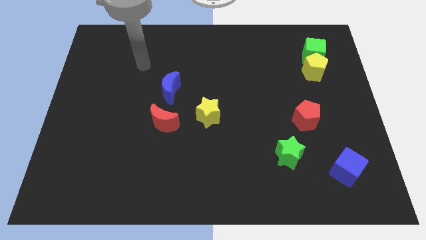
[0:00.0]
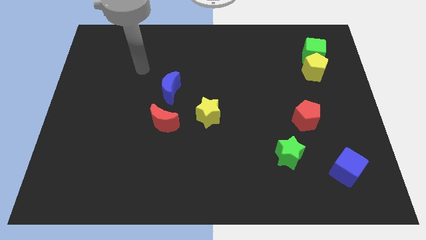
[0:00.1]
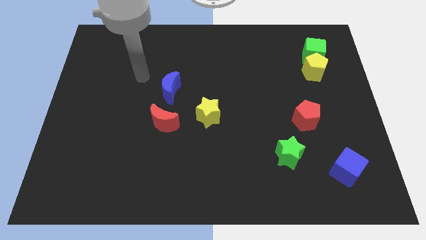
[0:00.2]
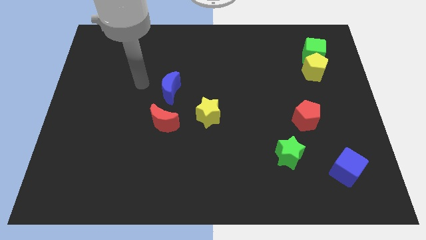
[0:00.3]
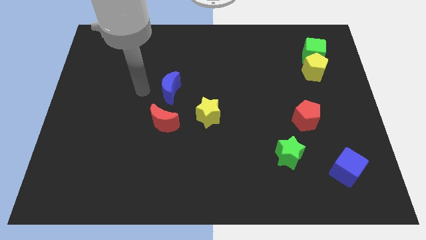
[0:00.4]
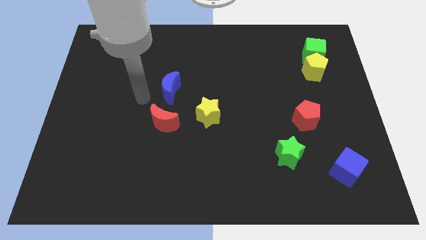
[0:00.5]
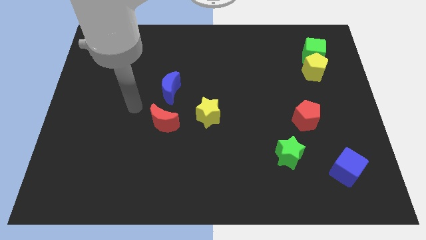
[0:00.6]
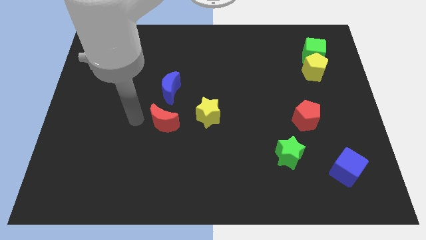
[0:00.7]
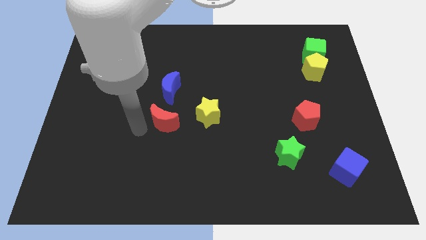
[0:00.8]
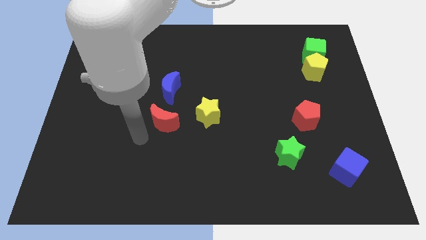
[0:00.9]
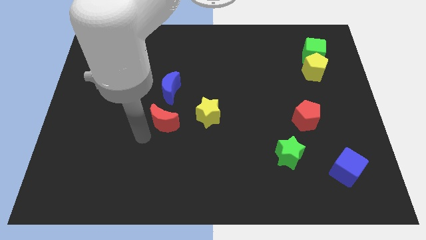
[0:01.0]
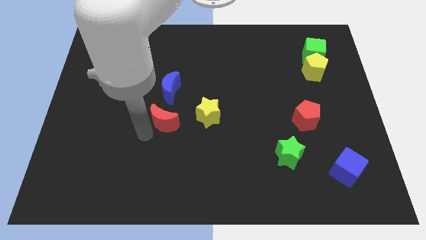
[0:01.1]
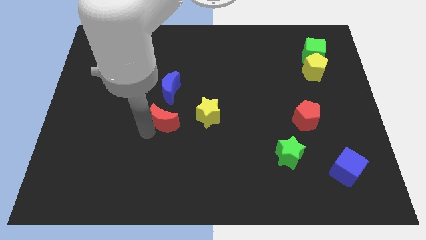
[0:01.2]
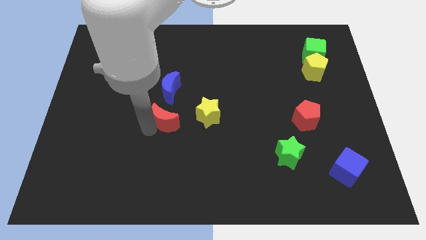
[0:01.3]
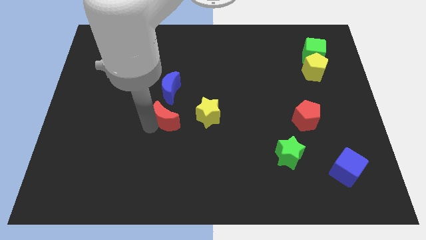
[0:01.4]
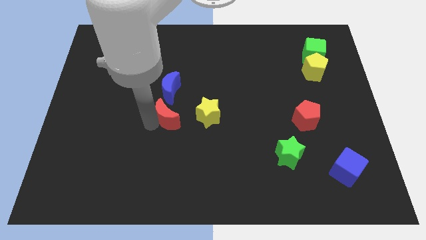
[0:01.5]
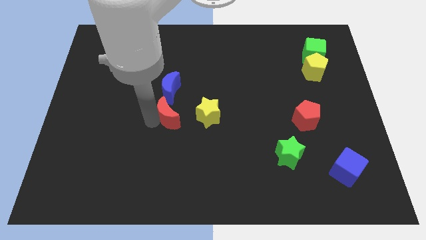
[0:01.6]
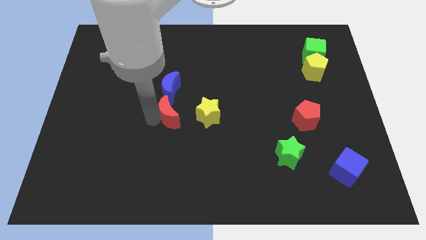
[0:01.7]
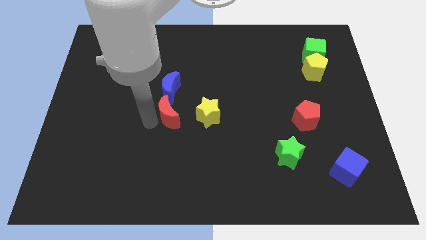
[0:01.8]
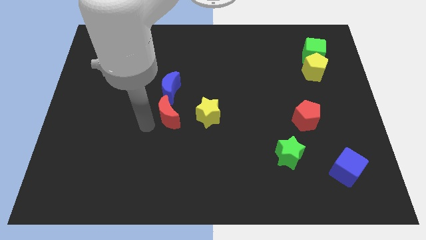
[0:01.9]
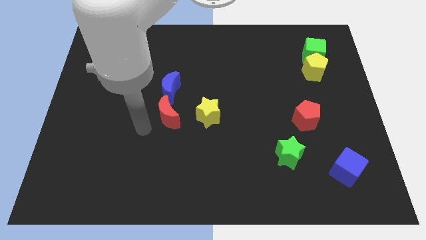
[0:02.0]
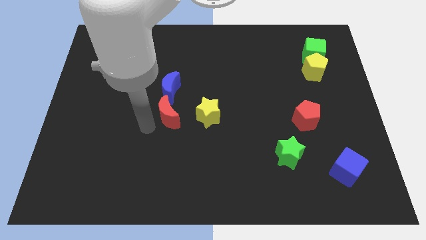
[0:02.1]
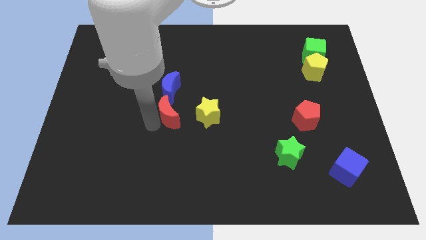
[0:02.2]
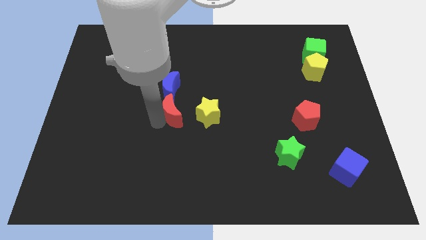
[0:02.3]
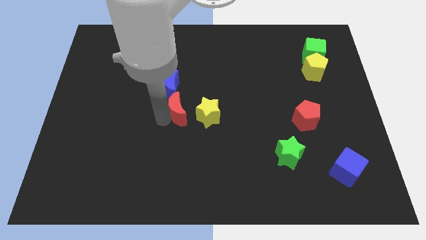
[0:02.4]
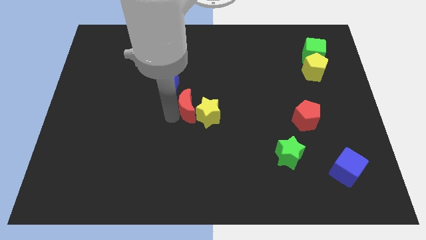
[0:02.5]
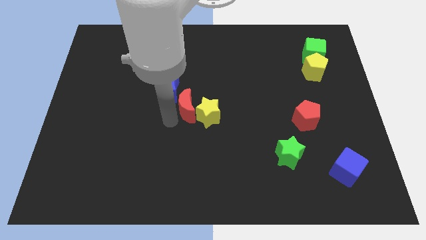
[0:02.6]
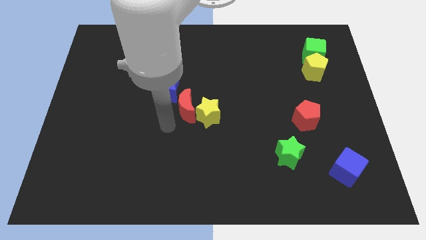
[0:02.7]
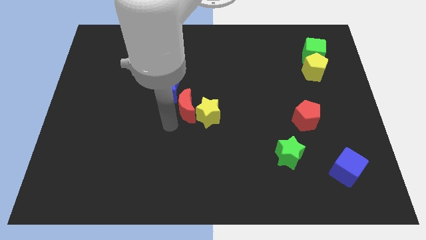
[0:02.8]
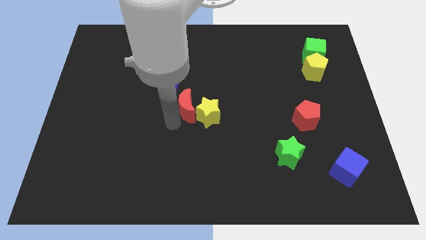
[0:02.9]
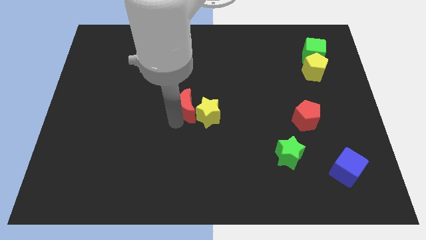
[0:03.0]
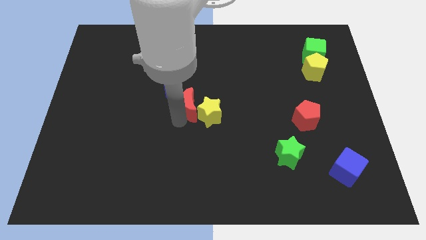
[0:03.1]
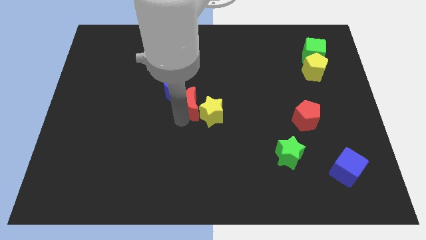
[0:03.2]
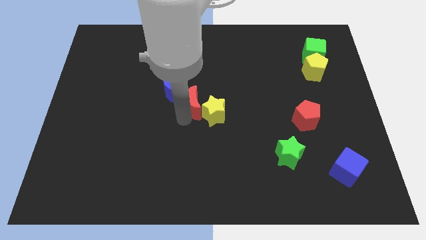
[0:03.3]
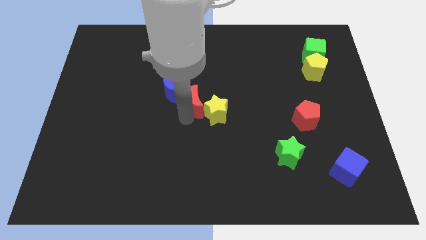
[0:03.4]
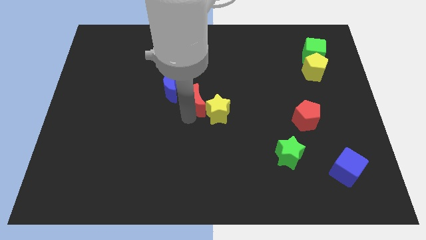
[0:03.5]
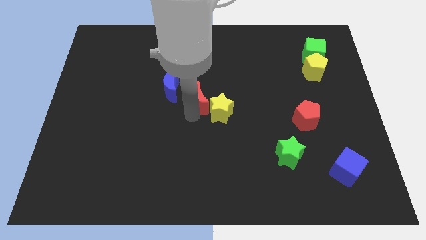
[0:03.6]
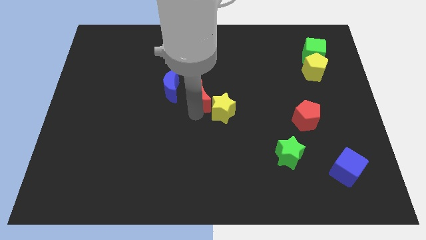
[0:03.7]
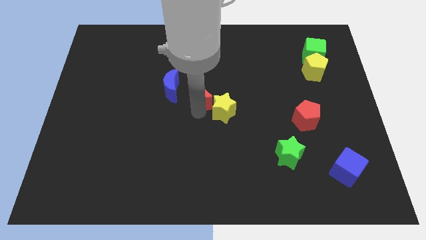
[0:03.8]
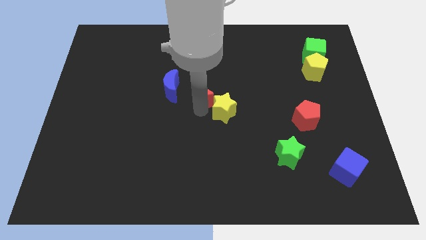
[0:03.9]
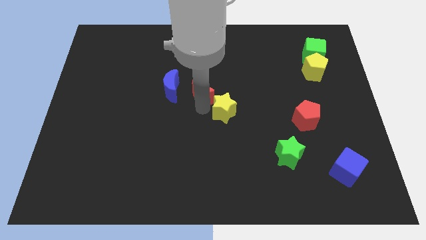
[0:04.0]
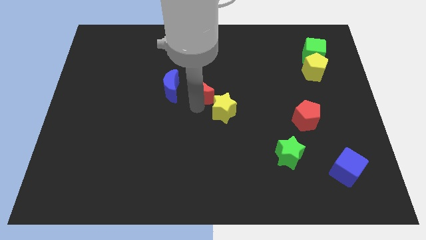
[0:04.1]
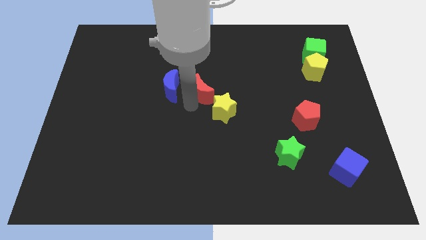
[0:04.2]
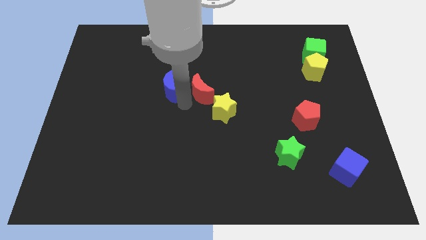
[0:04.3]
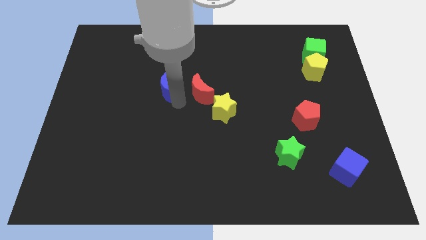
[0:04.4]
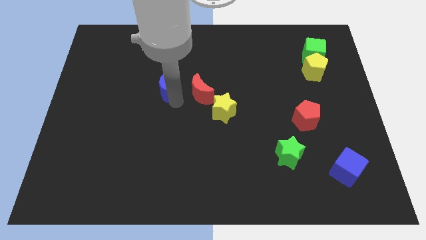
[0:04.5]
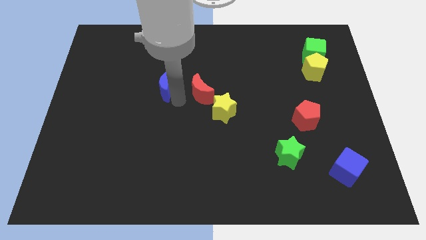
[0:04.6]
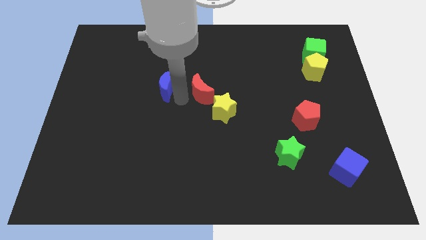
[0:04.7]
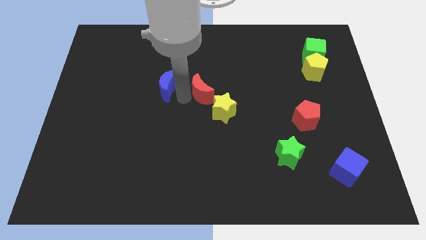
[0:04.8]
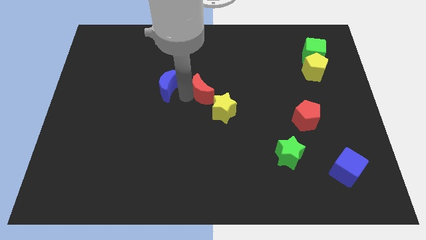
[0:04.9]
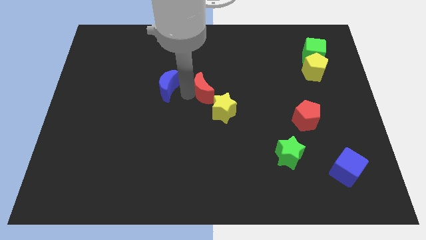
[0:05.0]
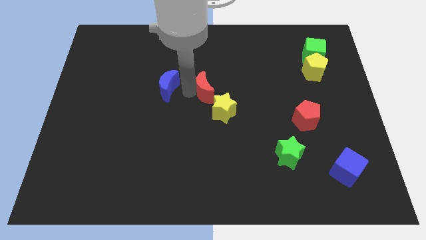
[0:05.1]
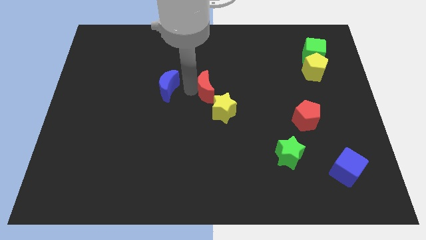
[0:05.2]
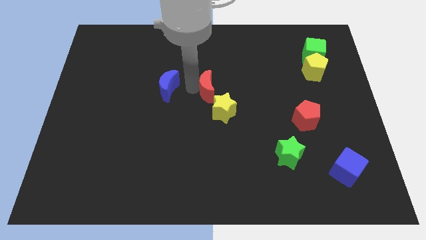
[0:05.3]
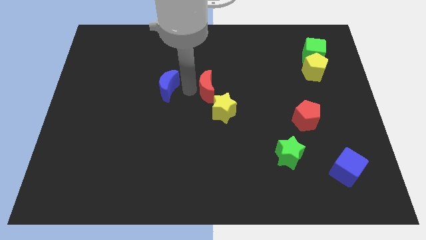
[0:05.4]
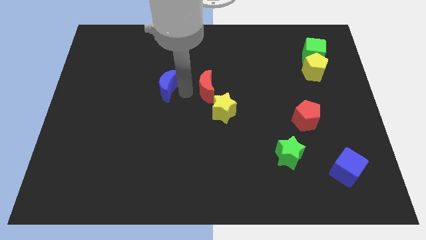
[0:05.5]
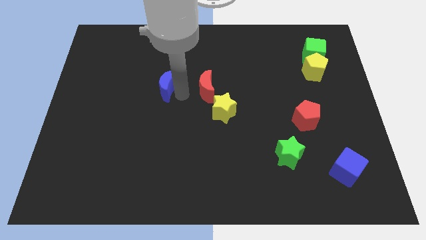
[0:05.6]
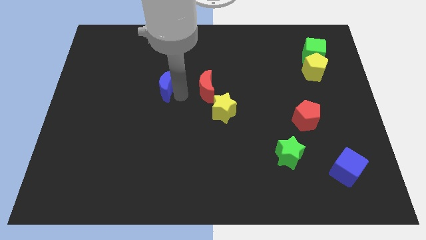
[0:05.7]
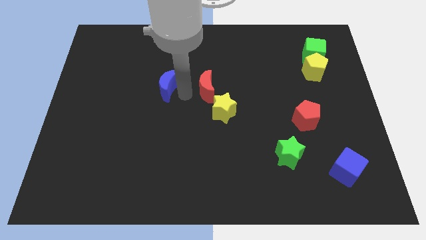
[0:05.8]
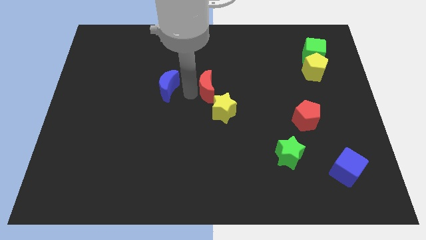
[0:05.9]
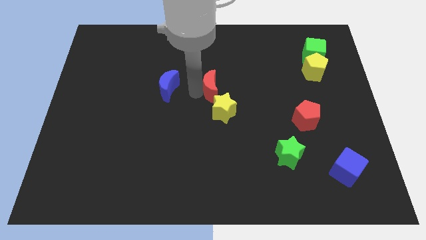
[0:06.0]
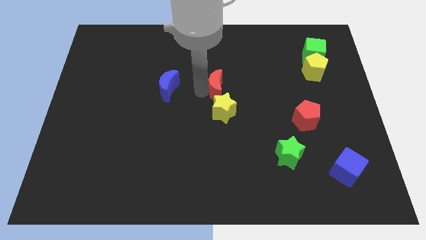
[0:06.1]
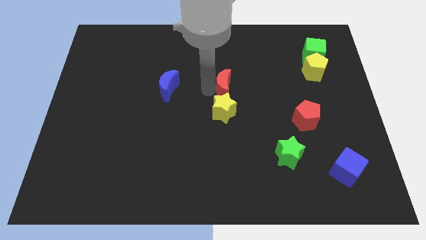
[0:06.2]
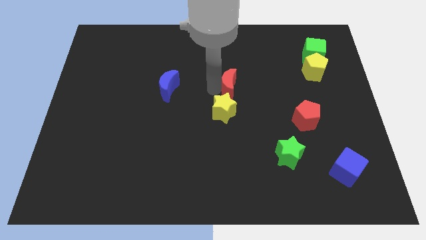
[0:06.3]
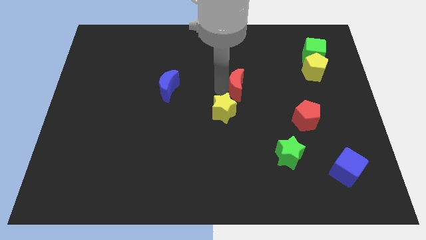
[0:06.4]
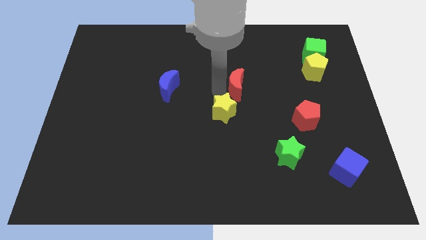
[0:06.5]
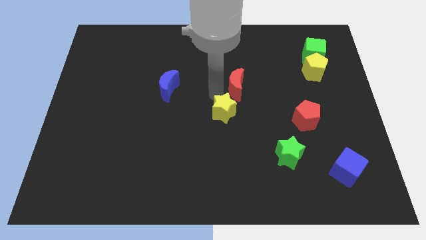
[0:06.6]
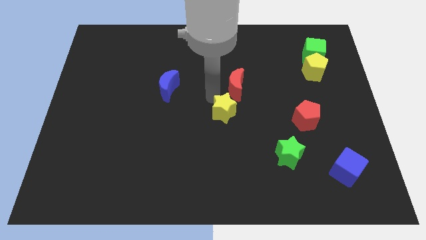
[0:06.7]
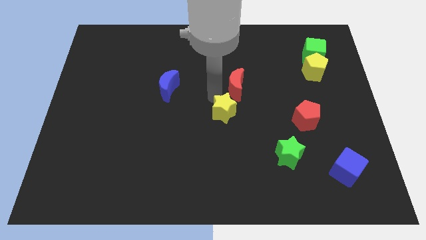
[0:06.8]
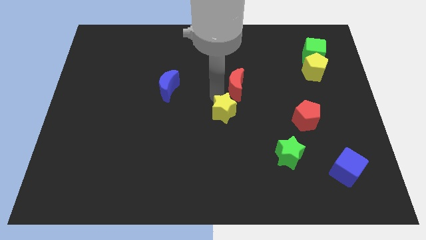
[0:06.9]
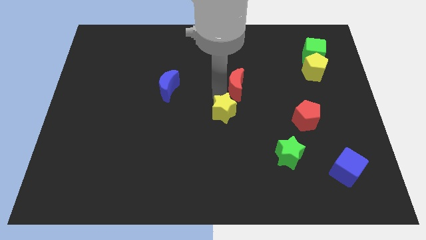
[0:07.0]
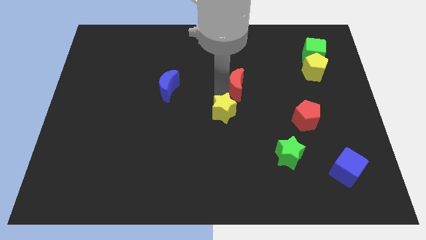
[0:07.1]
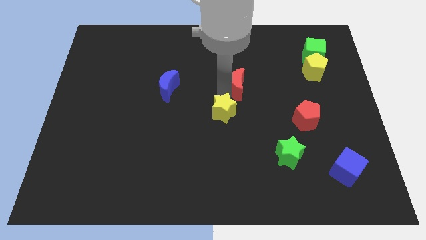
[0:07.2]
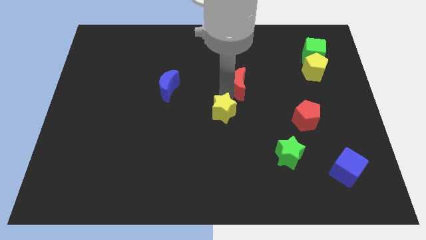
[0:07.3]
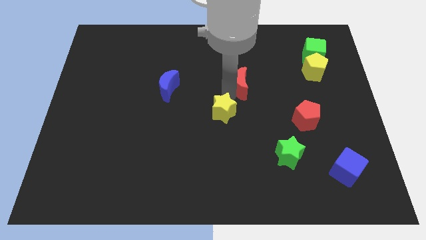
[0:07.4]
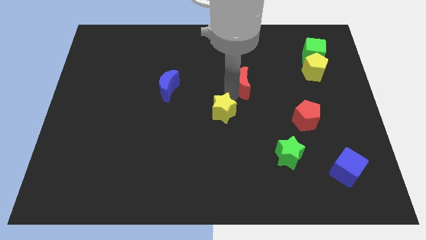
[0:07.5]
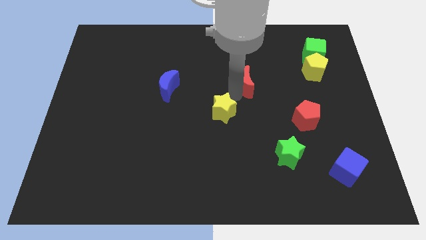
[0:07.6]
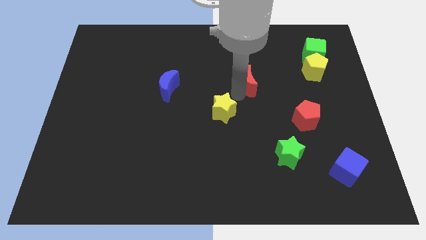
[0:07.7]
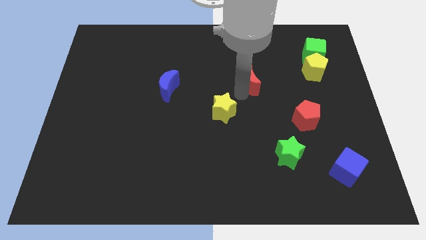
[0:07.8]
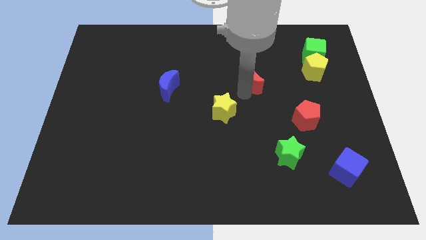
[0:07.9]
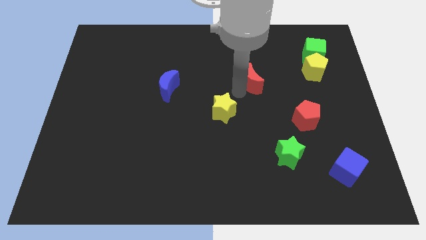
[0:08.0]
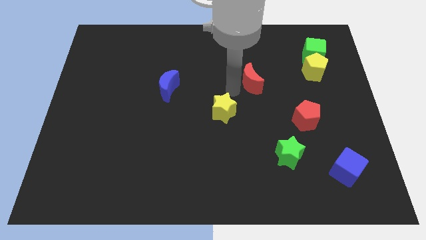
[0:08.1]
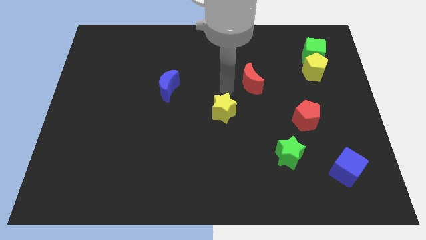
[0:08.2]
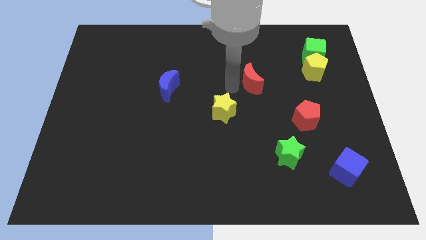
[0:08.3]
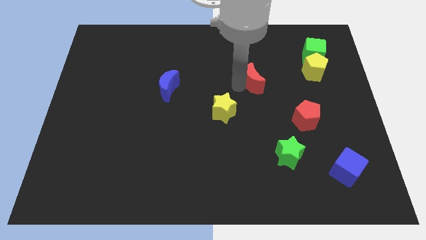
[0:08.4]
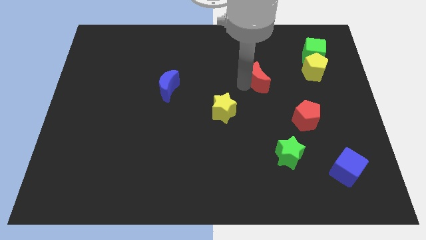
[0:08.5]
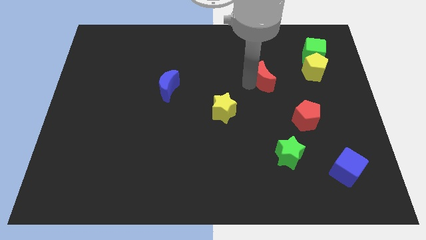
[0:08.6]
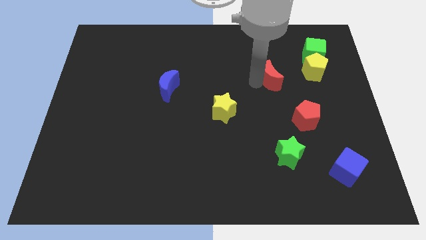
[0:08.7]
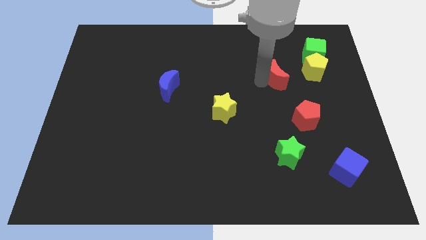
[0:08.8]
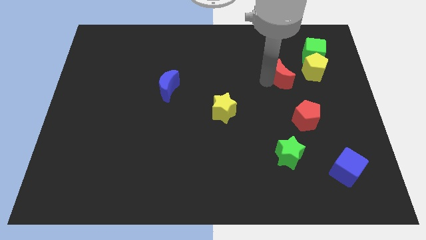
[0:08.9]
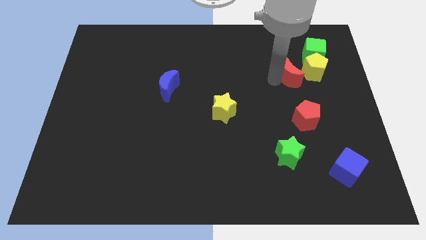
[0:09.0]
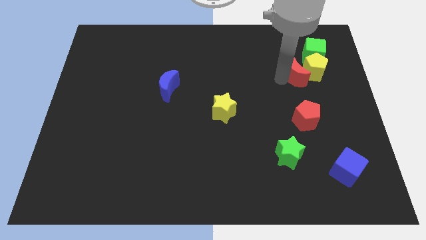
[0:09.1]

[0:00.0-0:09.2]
put the red moon close to the yellow pentagon
